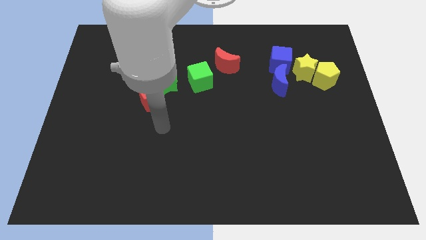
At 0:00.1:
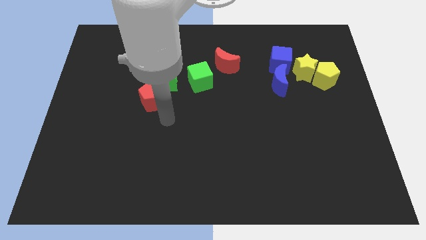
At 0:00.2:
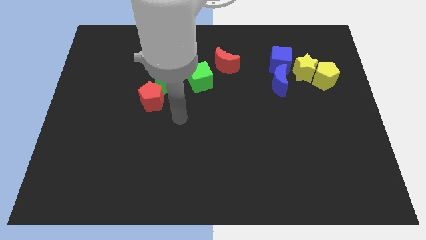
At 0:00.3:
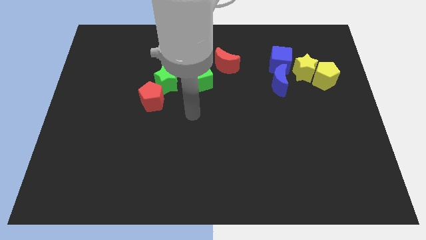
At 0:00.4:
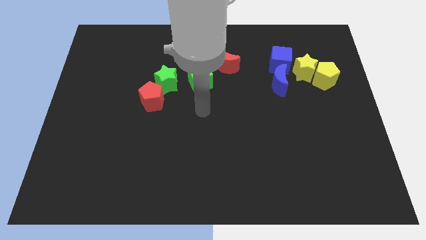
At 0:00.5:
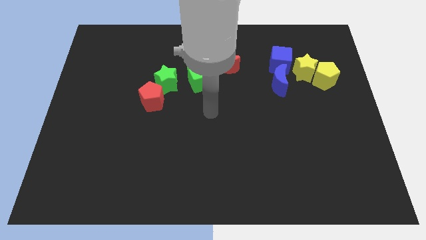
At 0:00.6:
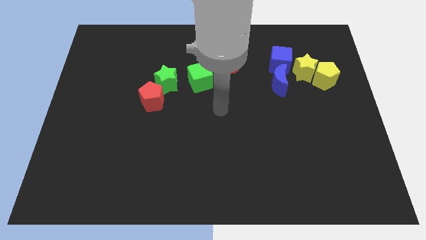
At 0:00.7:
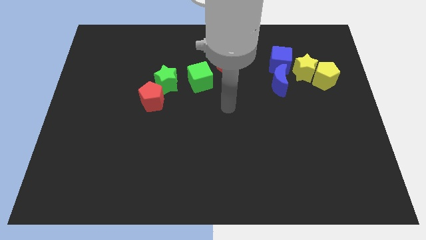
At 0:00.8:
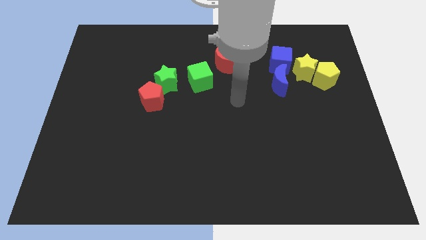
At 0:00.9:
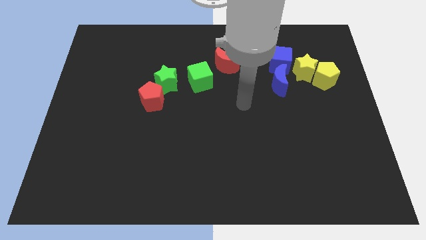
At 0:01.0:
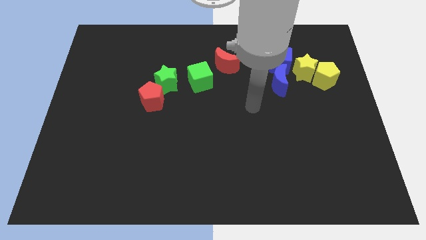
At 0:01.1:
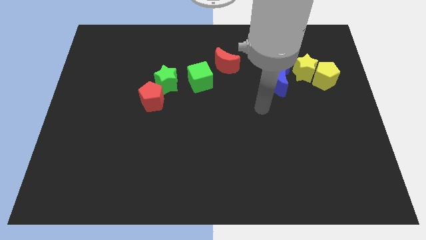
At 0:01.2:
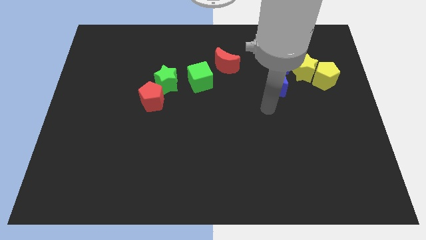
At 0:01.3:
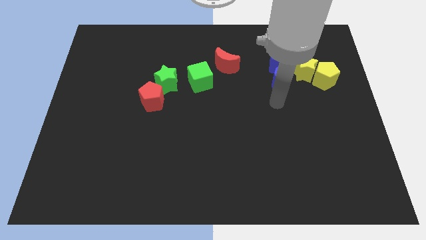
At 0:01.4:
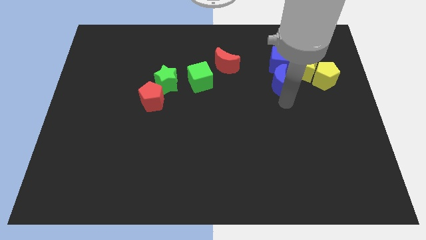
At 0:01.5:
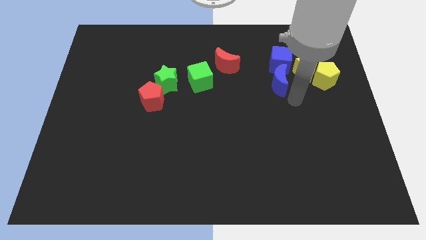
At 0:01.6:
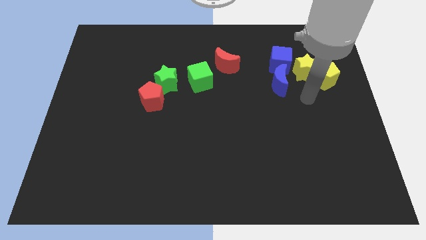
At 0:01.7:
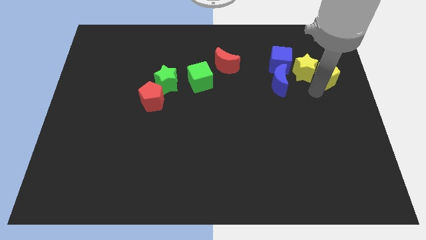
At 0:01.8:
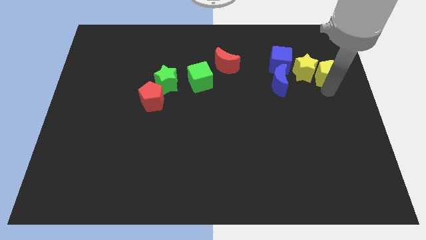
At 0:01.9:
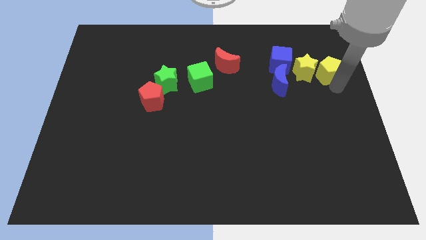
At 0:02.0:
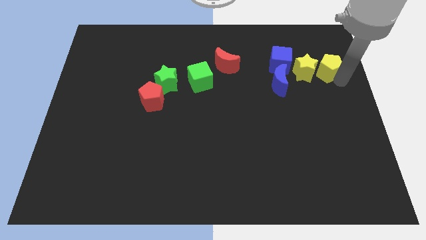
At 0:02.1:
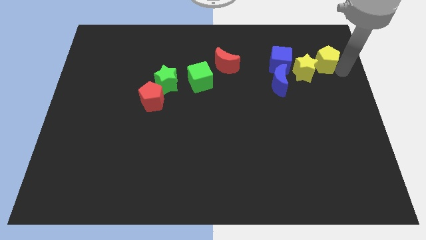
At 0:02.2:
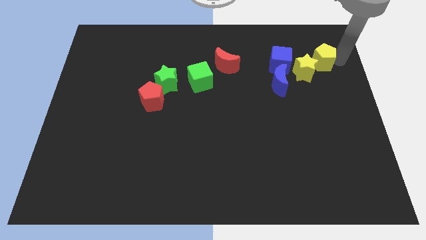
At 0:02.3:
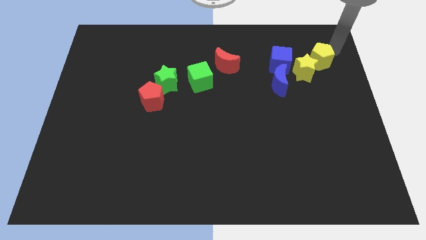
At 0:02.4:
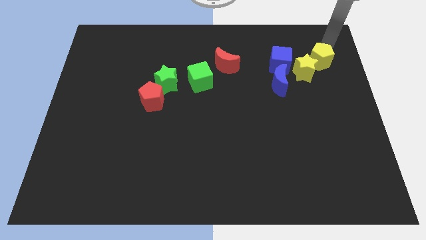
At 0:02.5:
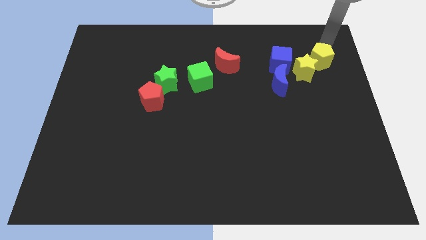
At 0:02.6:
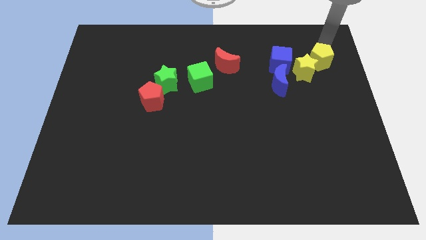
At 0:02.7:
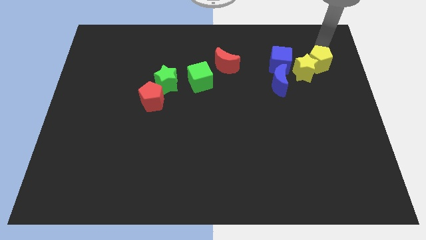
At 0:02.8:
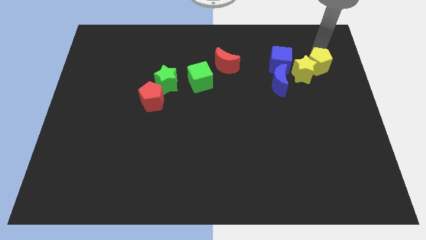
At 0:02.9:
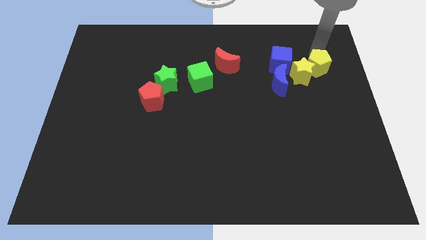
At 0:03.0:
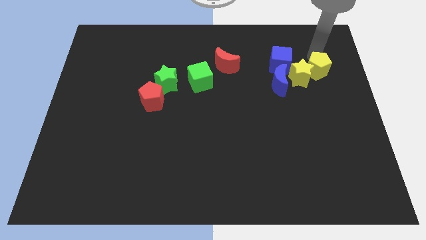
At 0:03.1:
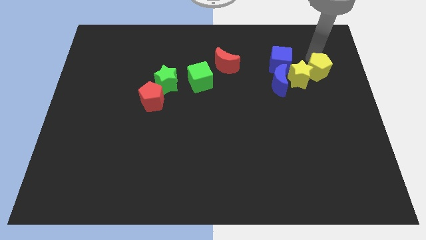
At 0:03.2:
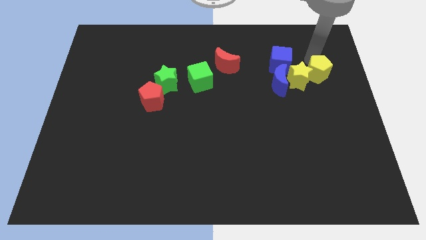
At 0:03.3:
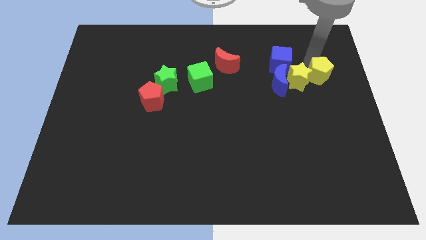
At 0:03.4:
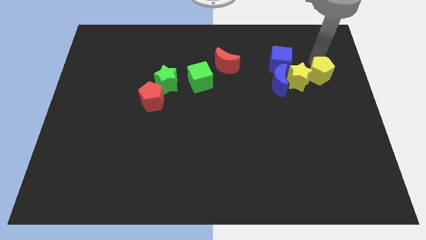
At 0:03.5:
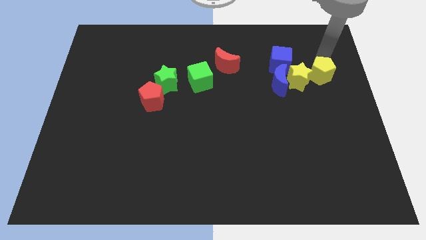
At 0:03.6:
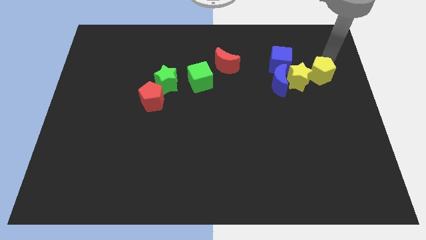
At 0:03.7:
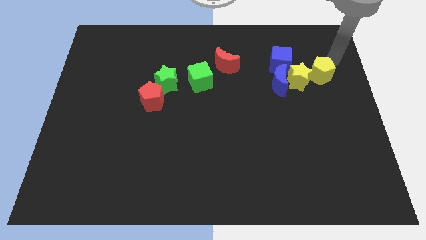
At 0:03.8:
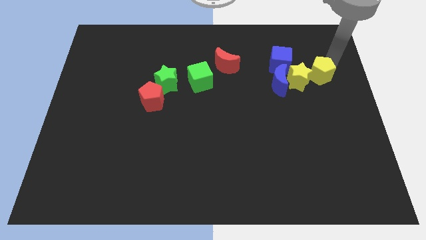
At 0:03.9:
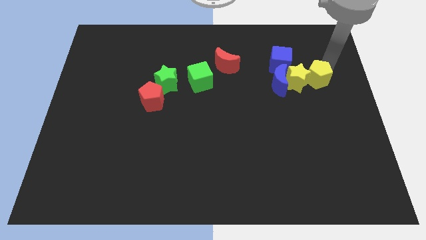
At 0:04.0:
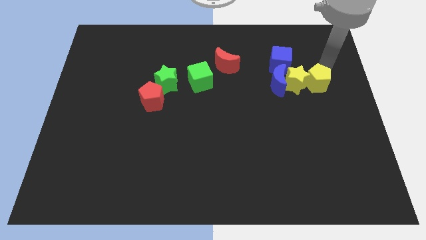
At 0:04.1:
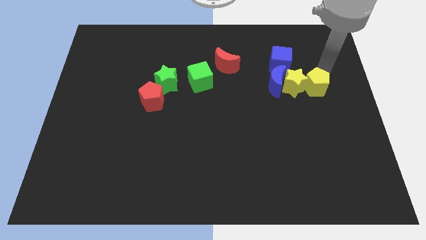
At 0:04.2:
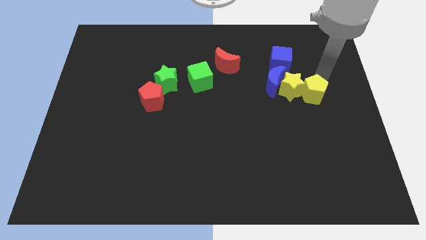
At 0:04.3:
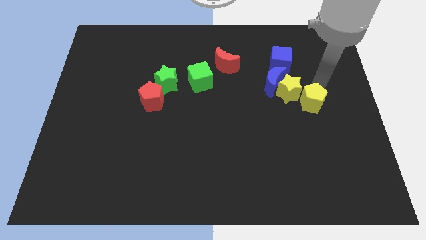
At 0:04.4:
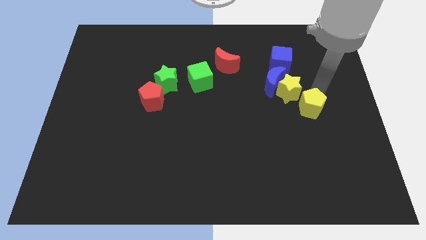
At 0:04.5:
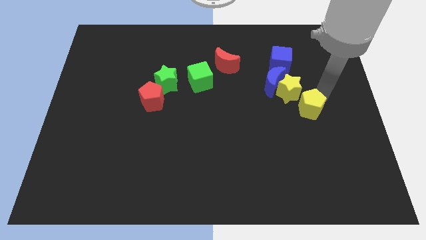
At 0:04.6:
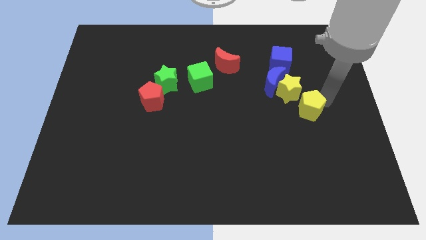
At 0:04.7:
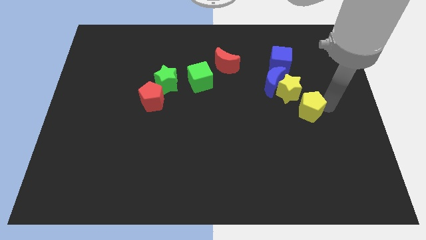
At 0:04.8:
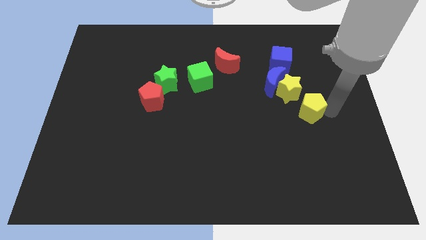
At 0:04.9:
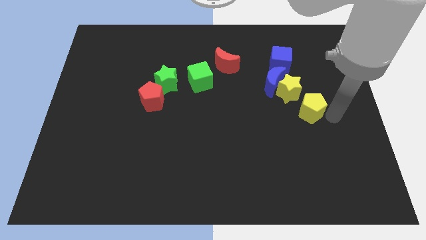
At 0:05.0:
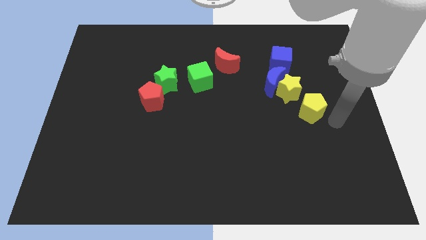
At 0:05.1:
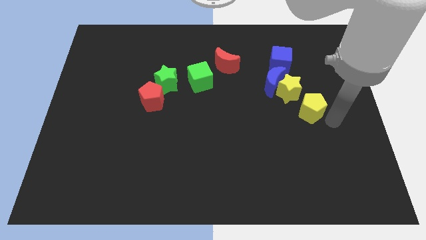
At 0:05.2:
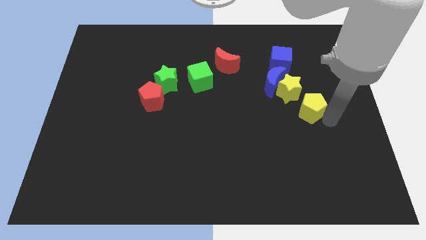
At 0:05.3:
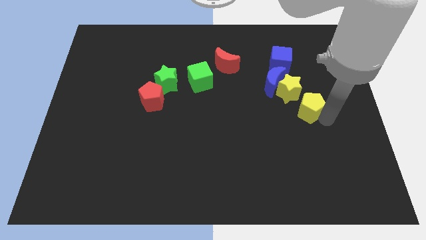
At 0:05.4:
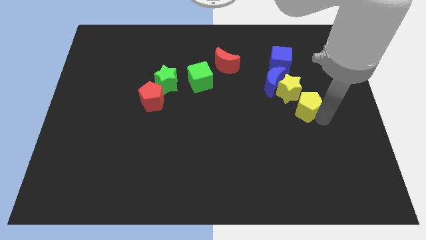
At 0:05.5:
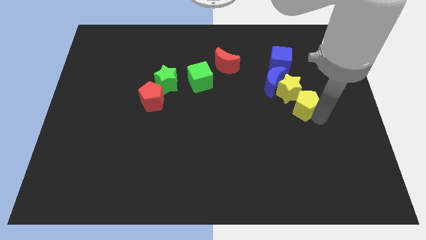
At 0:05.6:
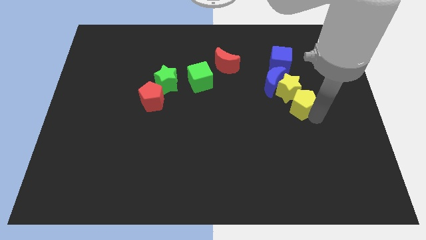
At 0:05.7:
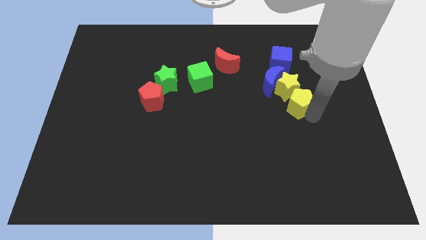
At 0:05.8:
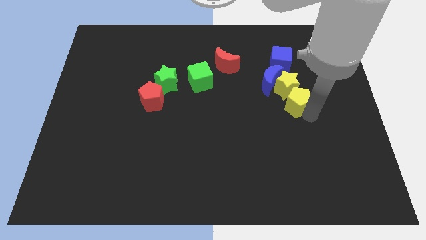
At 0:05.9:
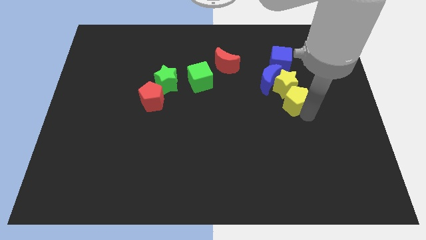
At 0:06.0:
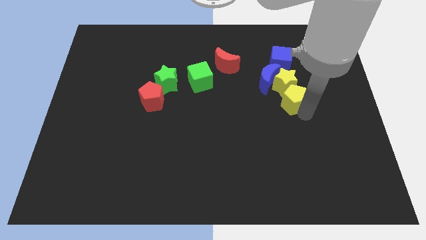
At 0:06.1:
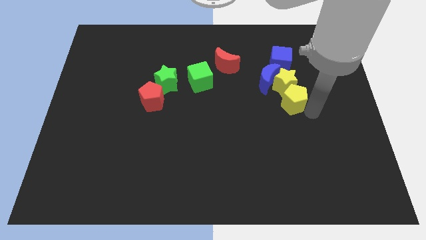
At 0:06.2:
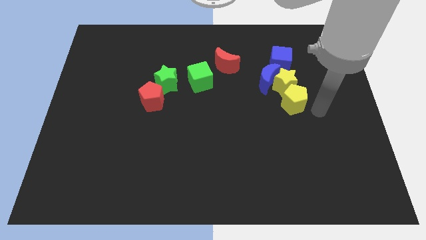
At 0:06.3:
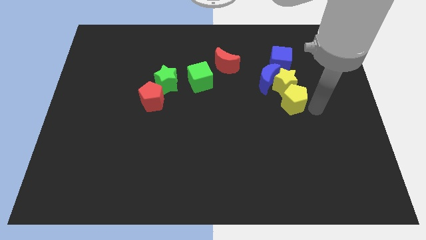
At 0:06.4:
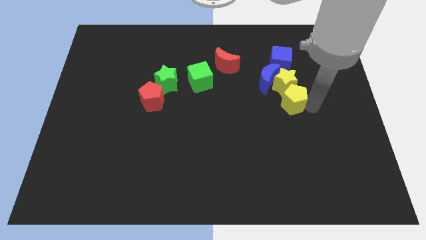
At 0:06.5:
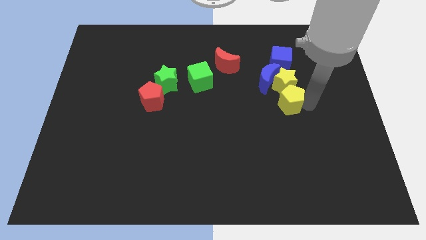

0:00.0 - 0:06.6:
move the yellow pentagon to the left a little bit

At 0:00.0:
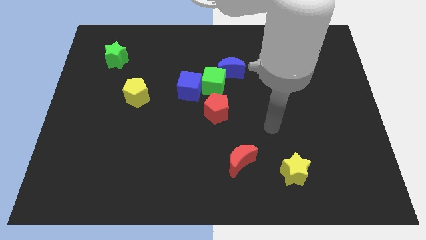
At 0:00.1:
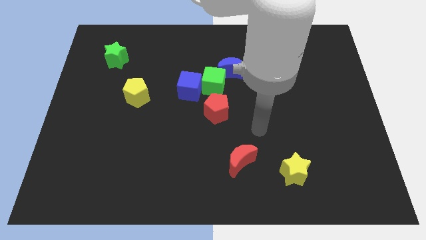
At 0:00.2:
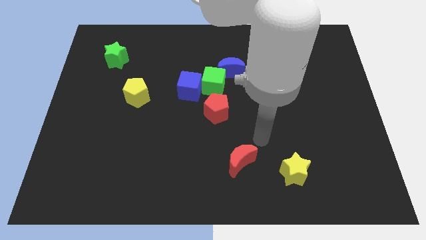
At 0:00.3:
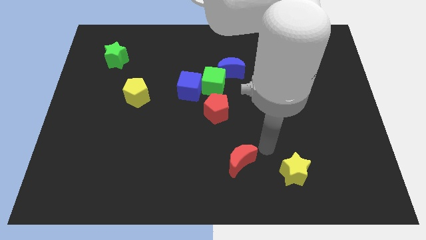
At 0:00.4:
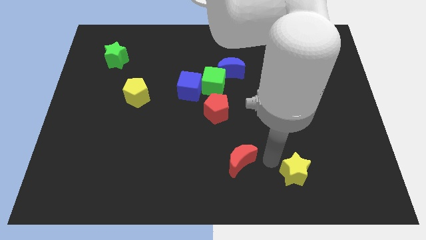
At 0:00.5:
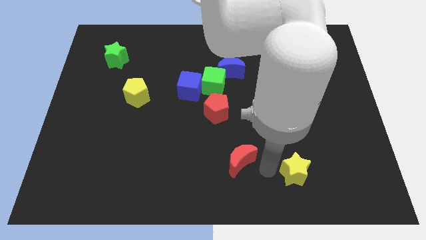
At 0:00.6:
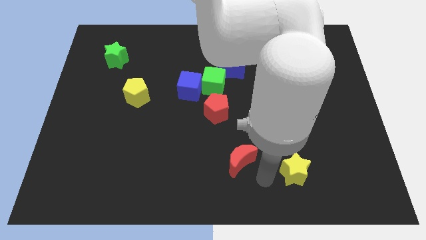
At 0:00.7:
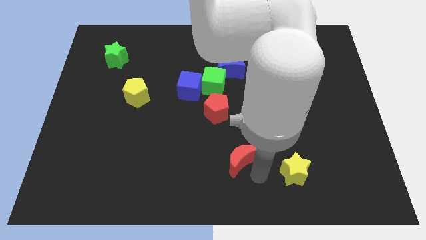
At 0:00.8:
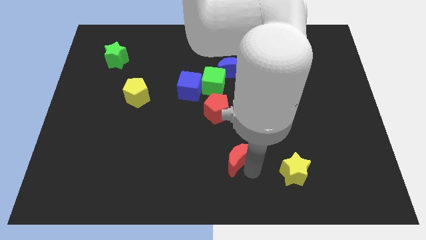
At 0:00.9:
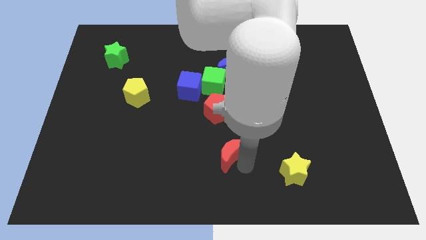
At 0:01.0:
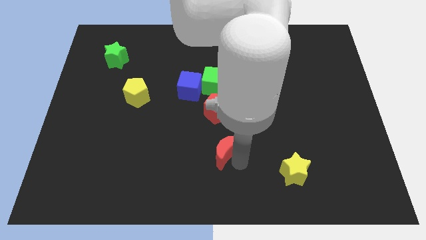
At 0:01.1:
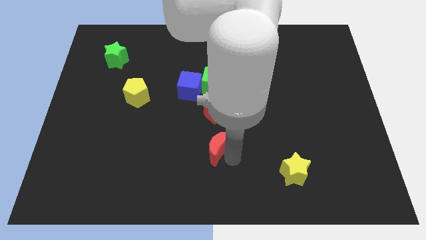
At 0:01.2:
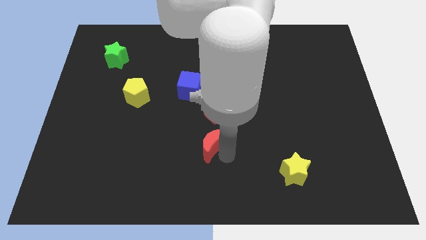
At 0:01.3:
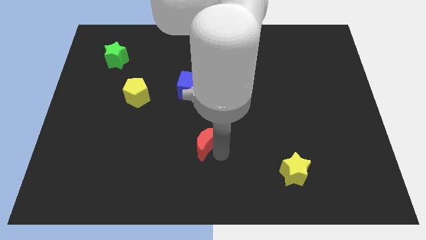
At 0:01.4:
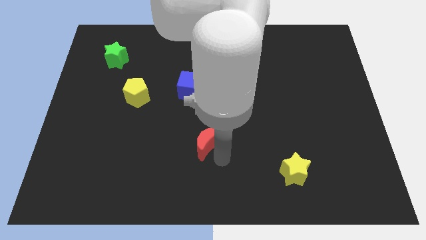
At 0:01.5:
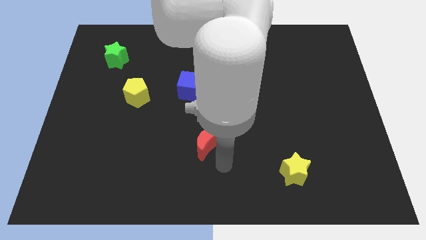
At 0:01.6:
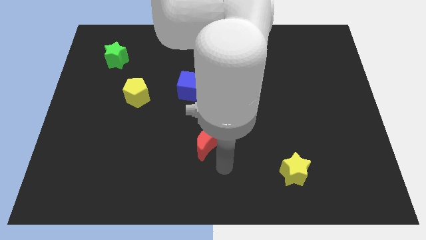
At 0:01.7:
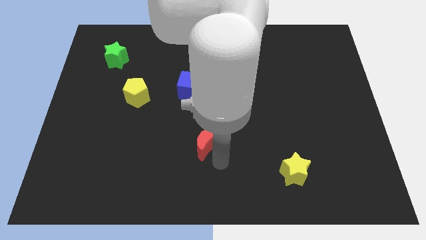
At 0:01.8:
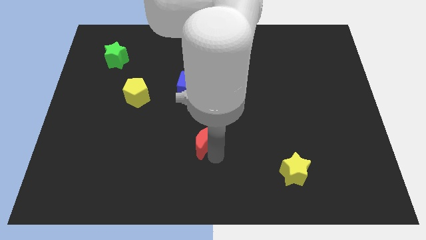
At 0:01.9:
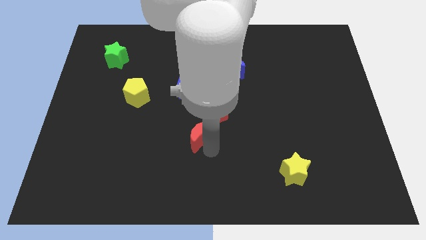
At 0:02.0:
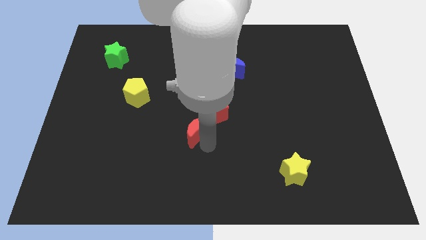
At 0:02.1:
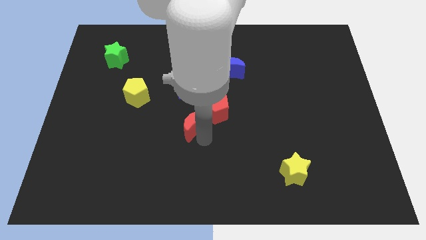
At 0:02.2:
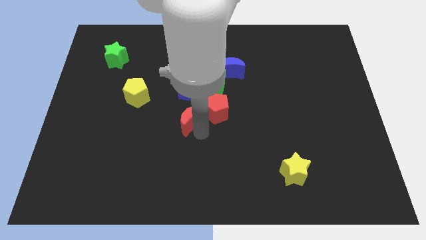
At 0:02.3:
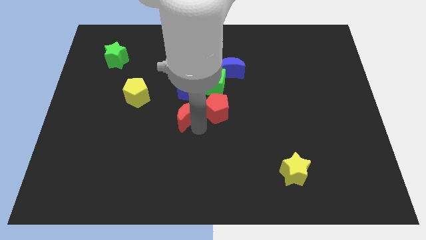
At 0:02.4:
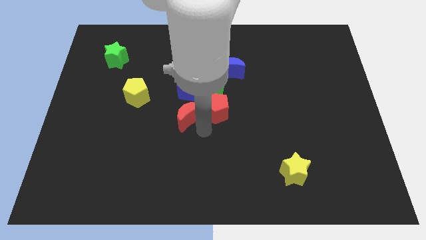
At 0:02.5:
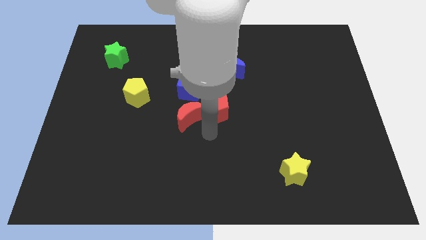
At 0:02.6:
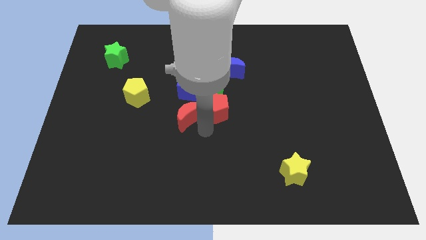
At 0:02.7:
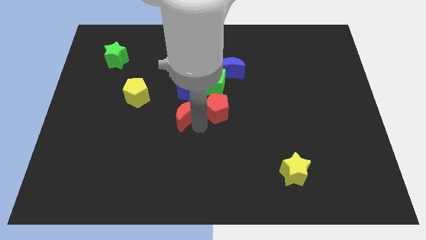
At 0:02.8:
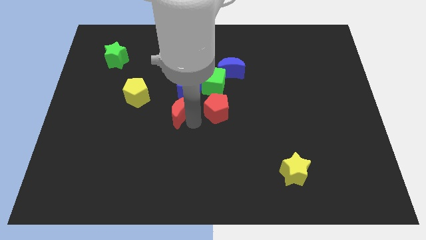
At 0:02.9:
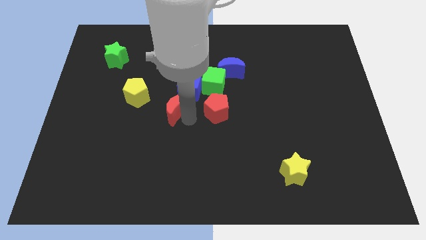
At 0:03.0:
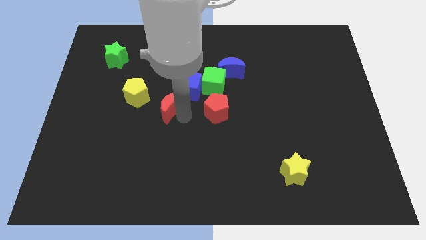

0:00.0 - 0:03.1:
push the red moon up and to the left diagonally
